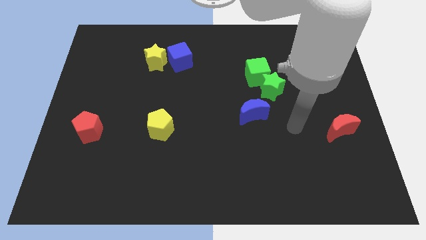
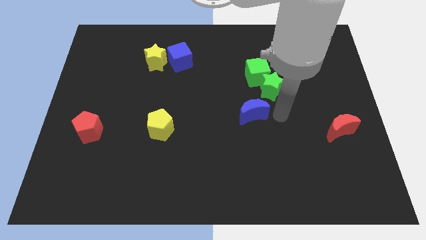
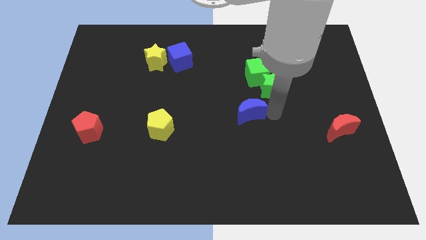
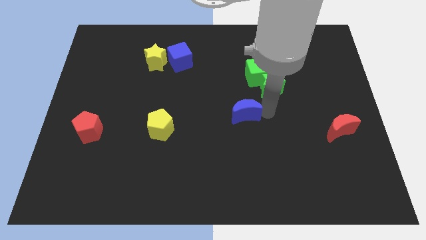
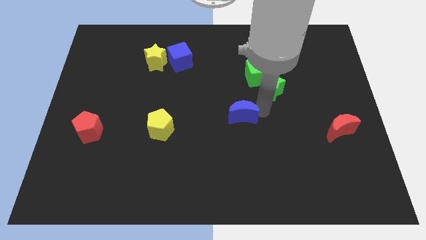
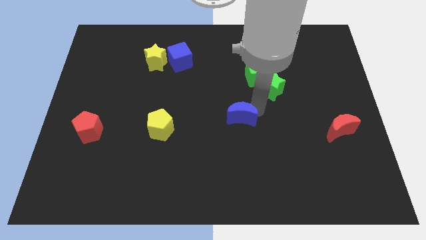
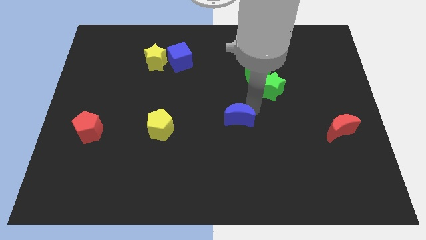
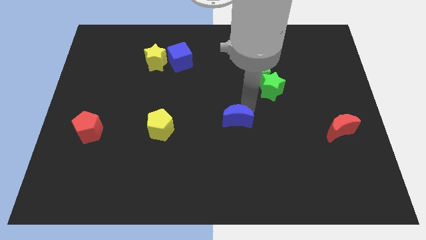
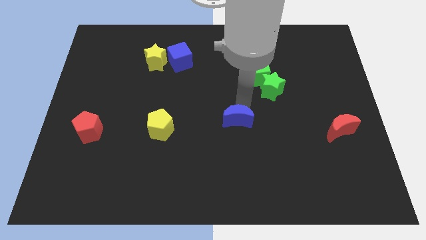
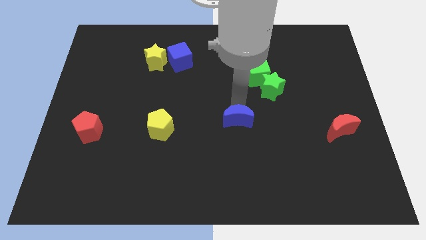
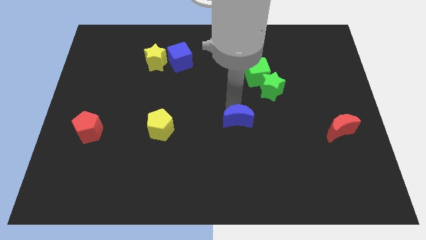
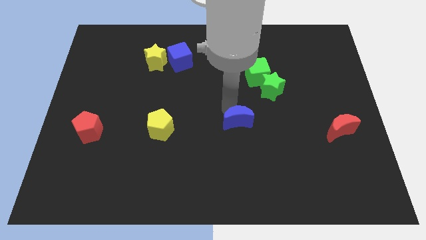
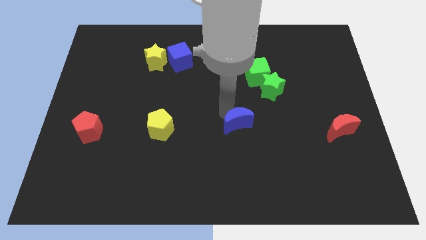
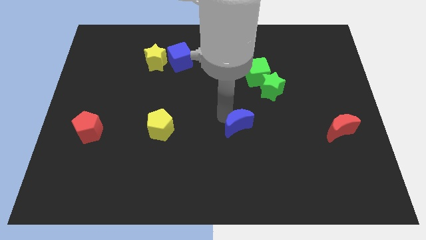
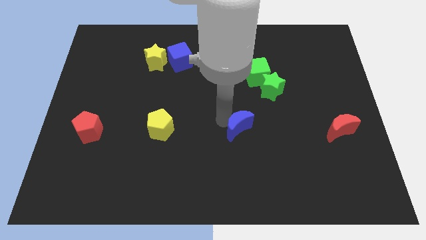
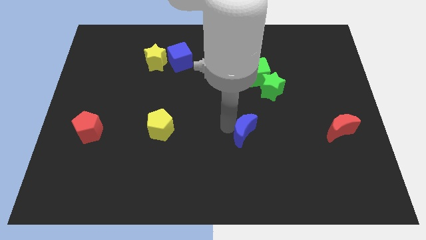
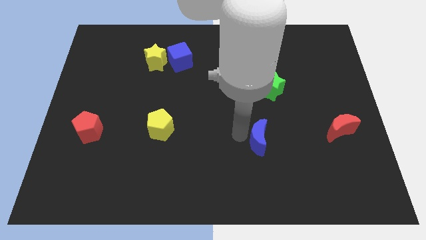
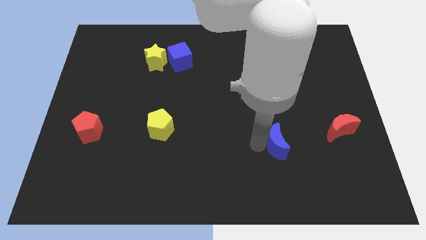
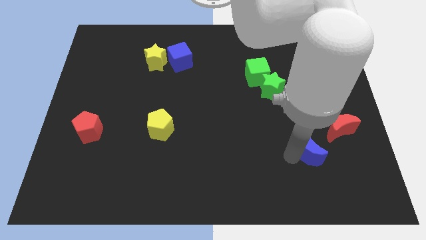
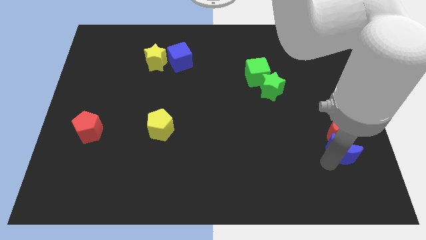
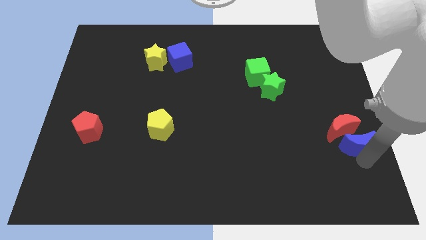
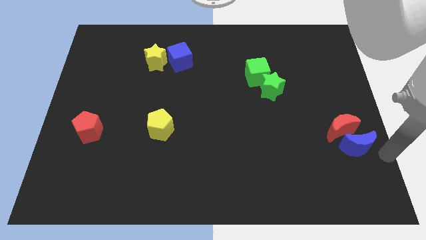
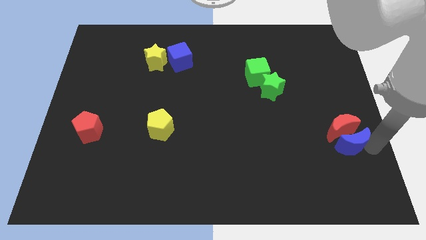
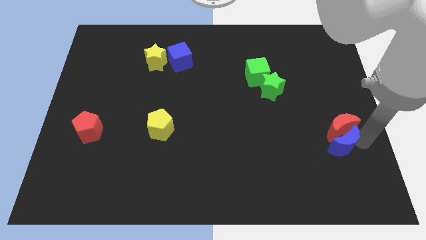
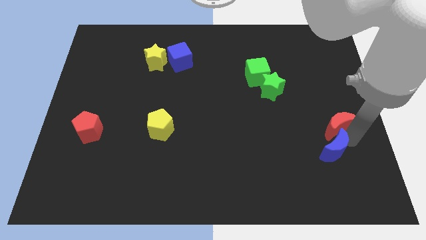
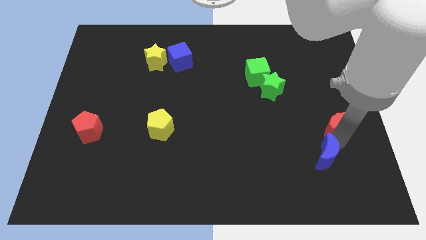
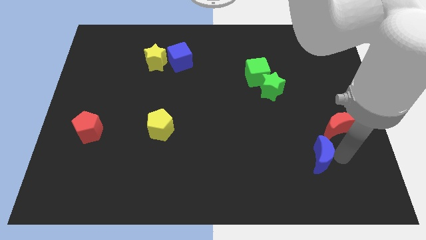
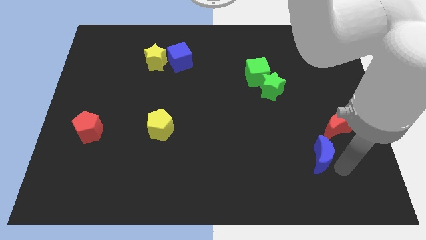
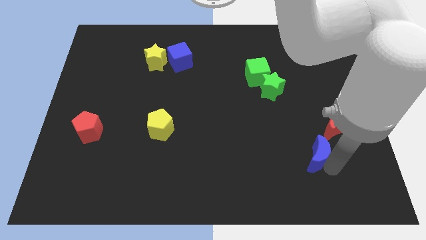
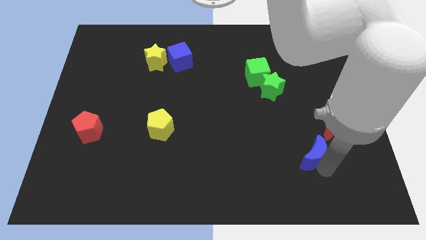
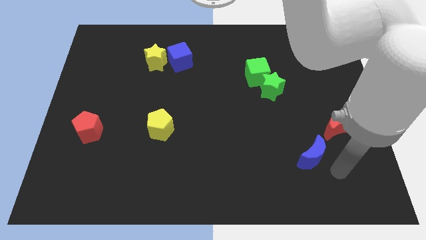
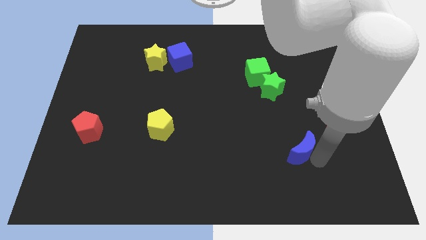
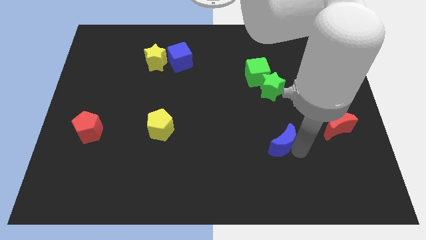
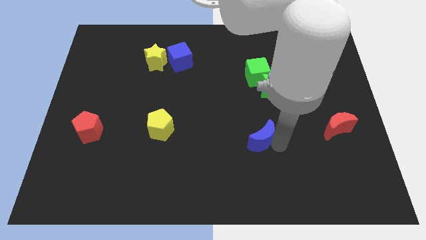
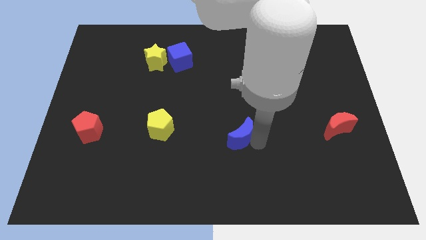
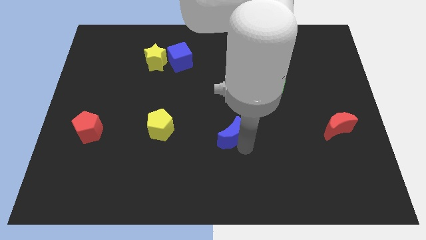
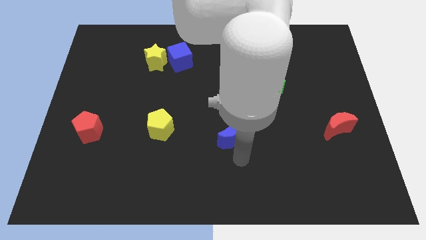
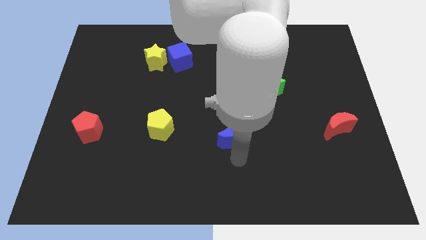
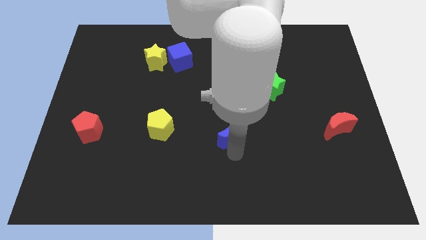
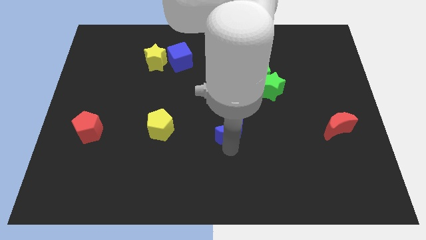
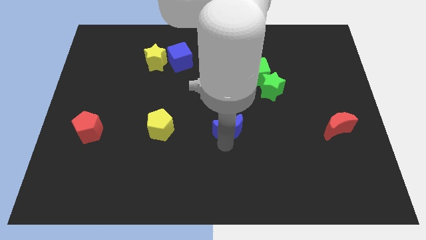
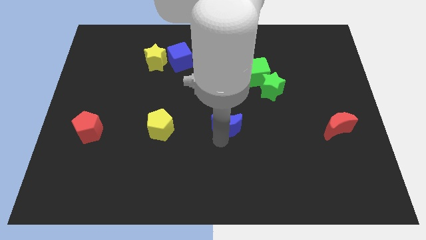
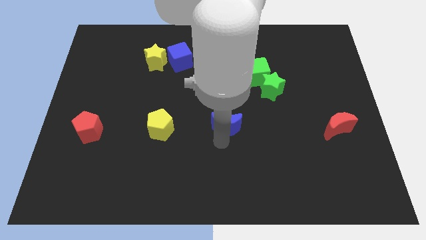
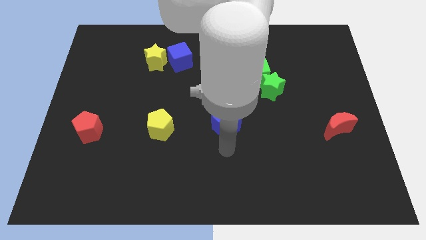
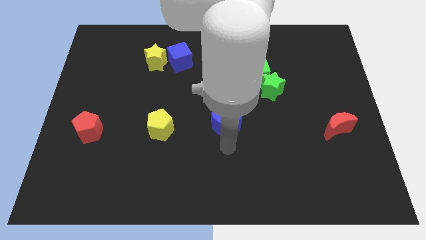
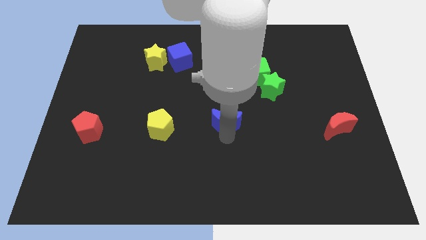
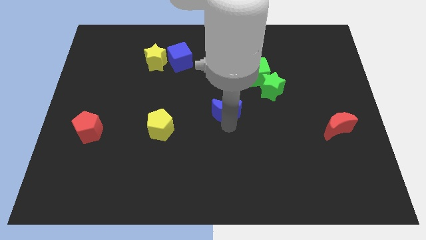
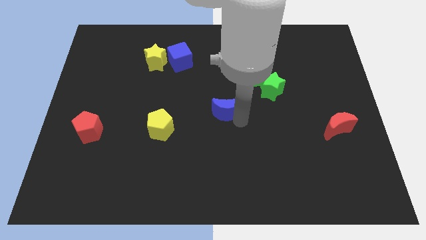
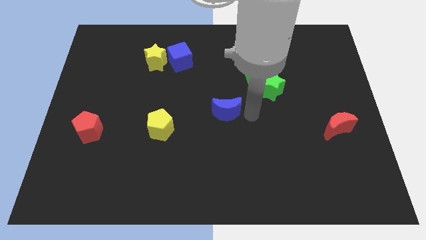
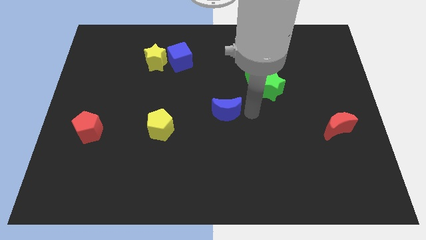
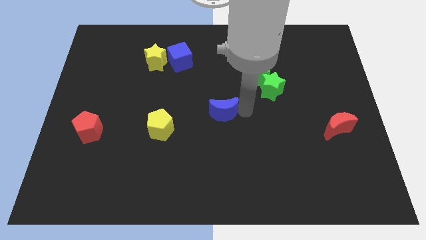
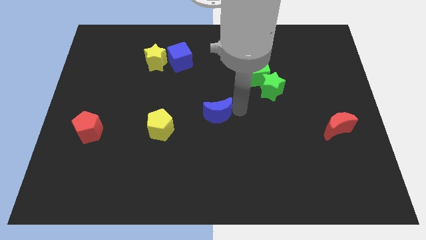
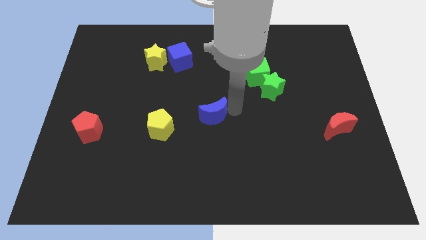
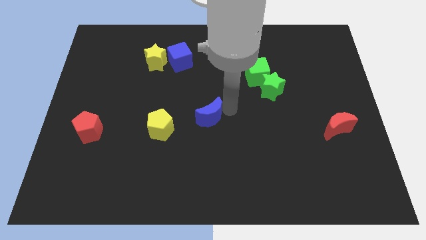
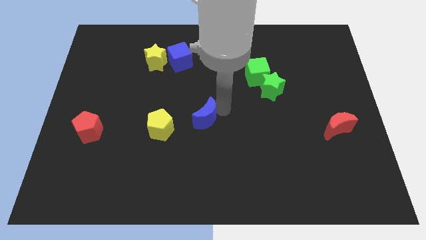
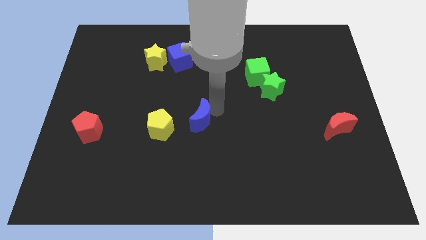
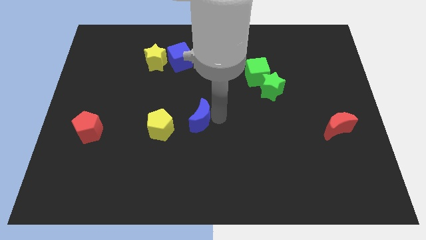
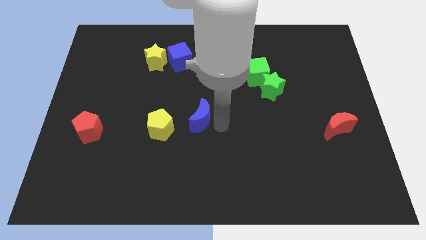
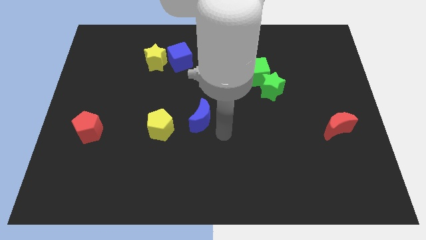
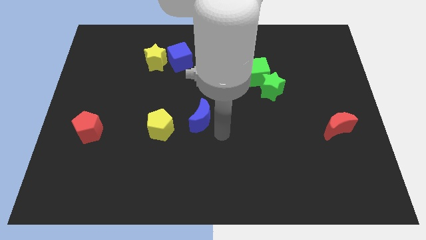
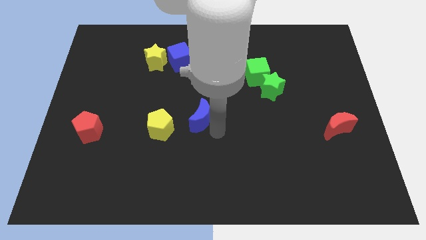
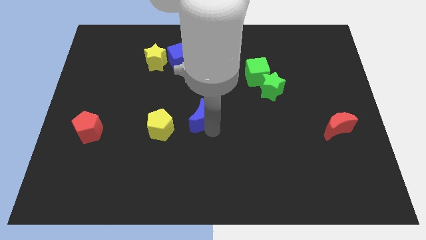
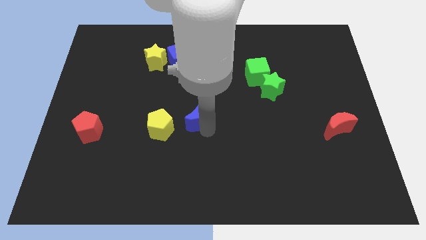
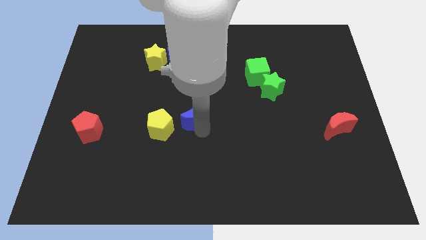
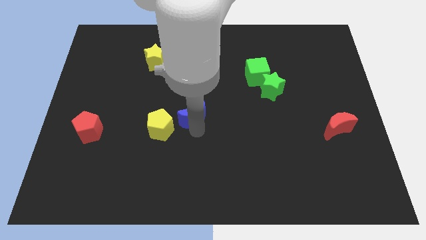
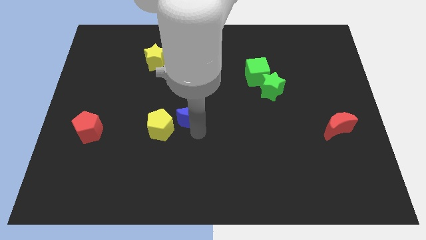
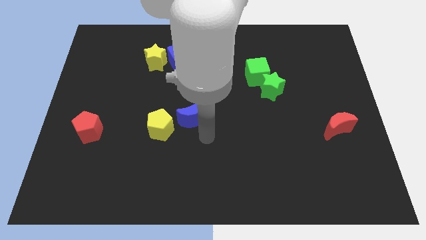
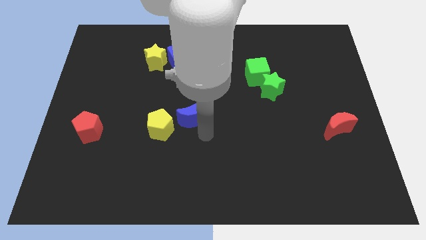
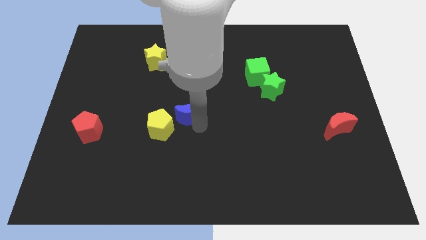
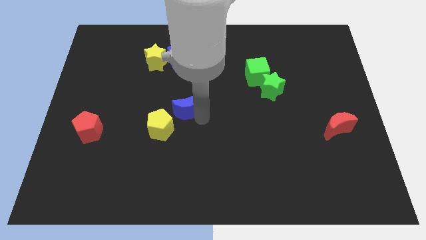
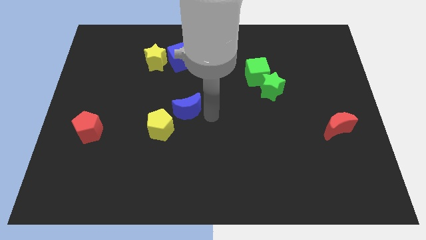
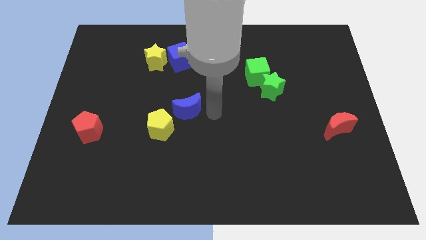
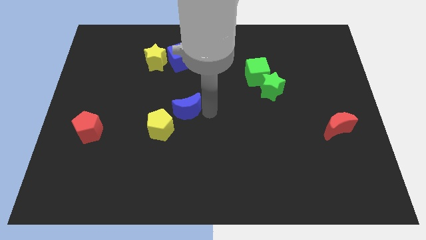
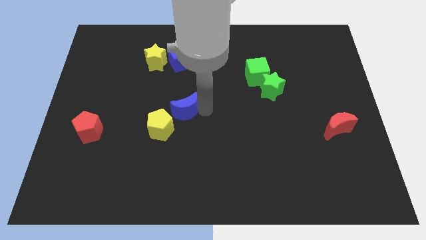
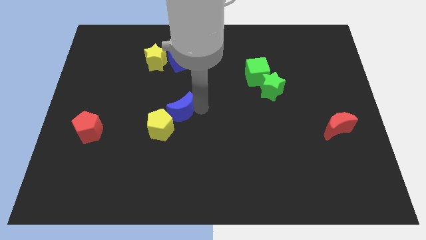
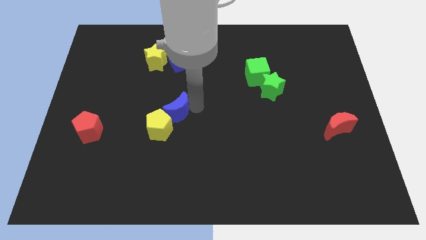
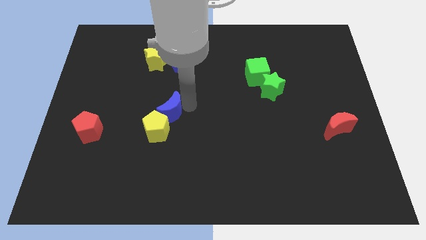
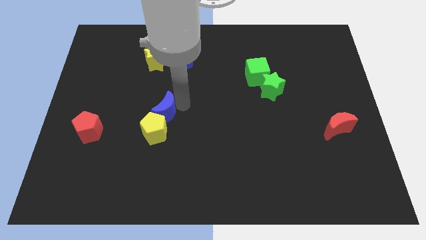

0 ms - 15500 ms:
push the blue moon to the left

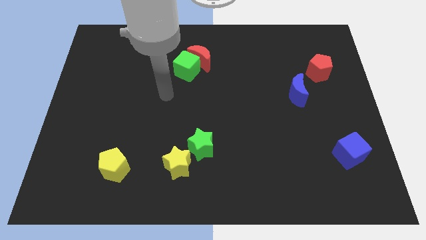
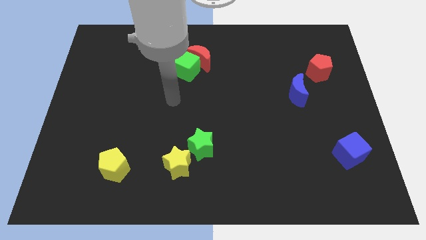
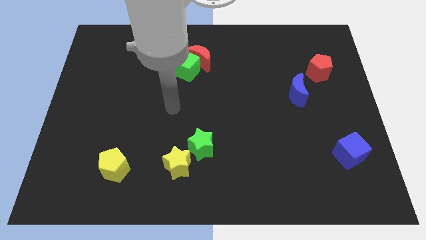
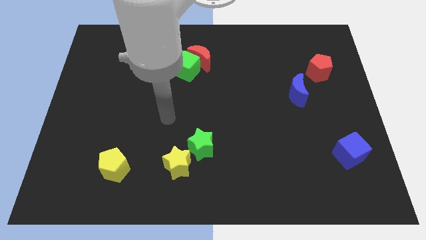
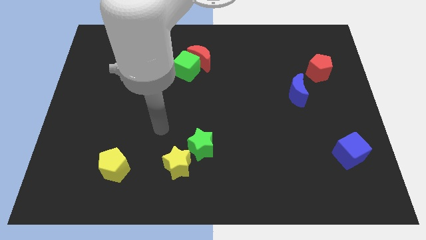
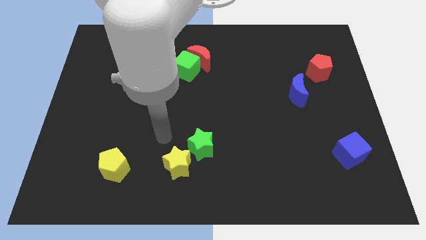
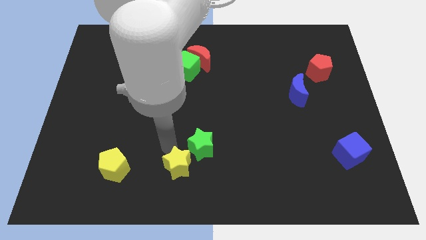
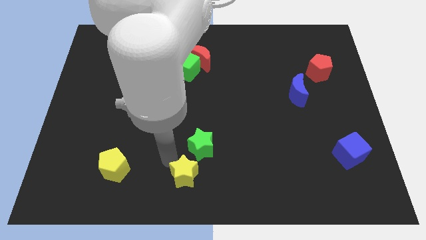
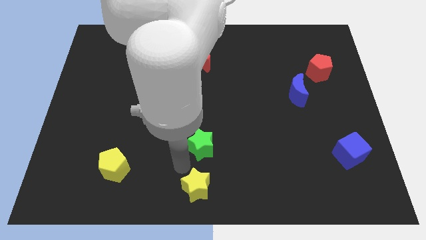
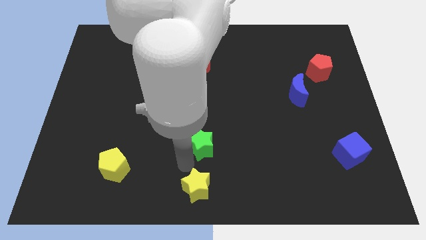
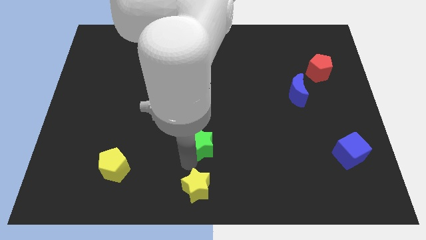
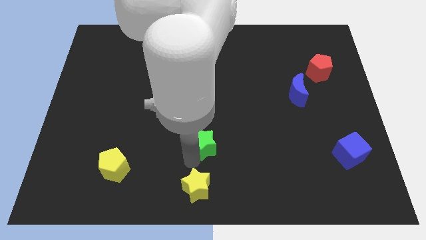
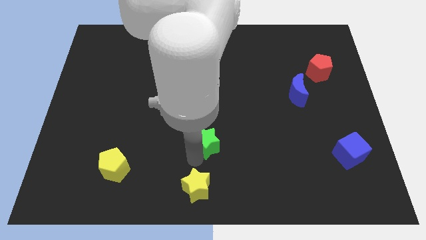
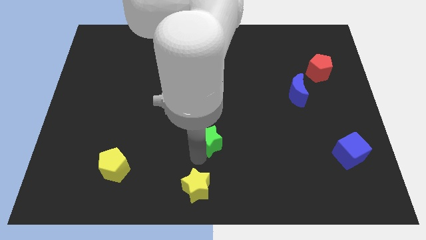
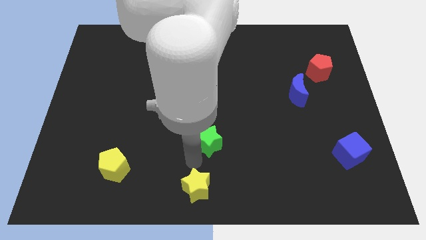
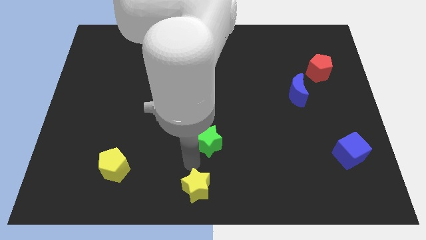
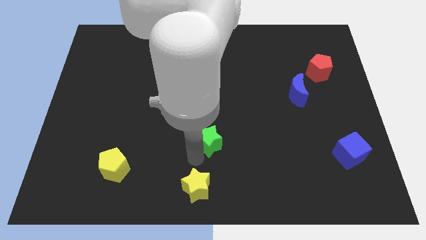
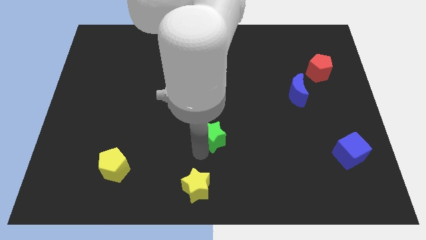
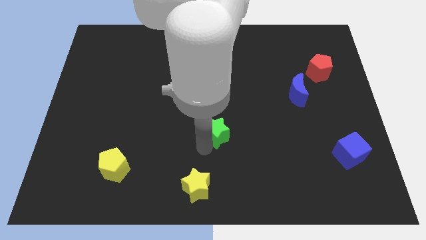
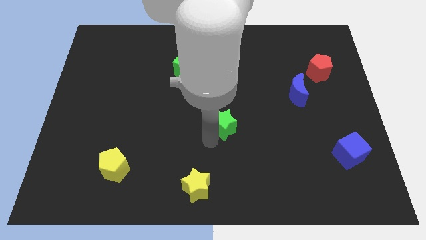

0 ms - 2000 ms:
move the green star upwards and right diagonally somewhat
